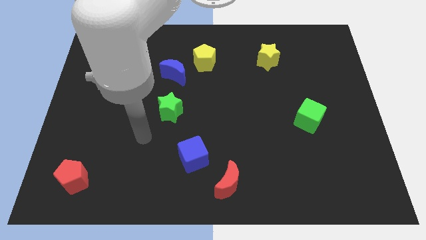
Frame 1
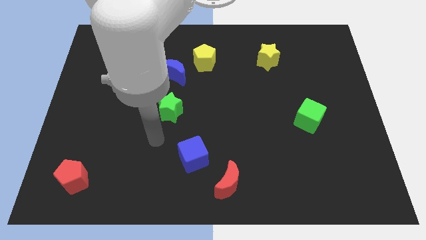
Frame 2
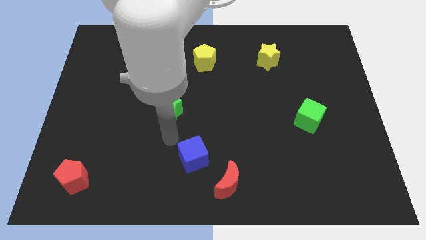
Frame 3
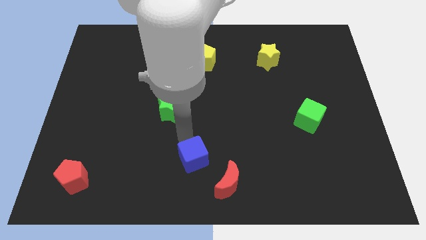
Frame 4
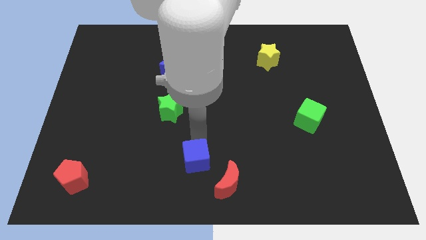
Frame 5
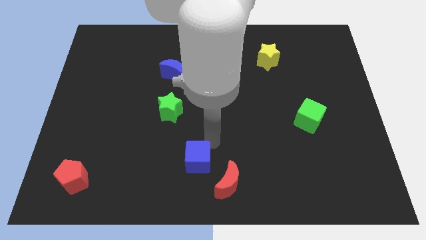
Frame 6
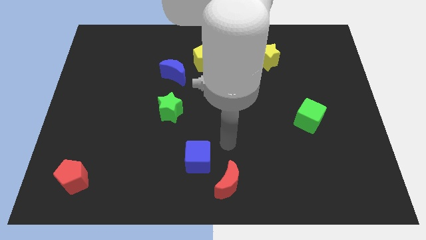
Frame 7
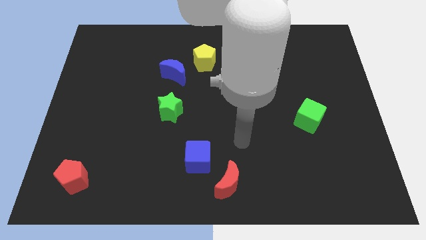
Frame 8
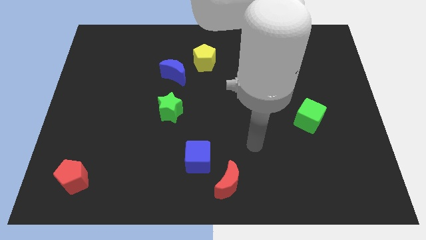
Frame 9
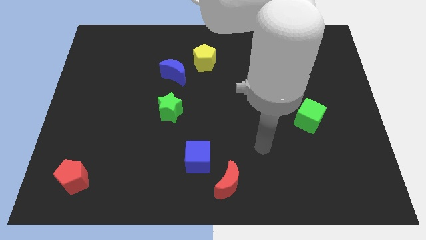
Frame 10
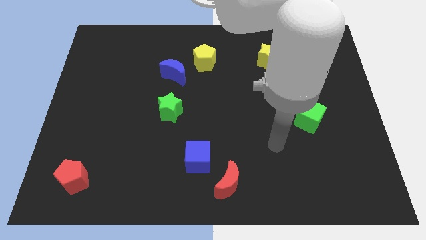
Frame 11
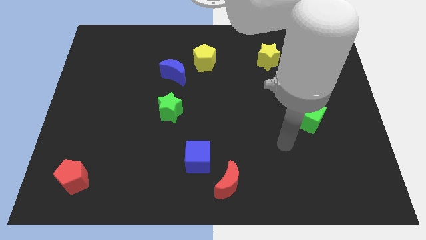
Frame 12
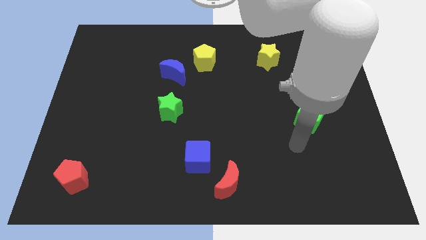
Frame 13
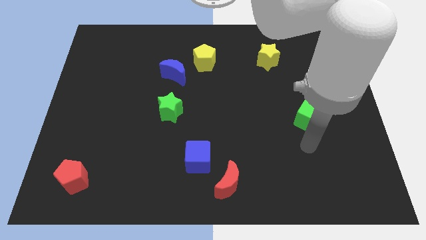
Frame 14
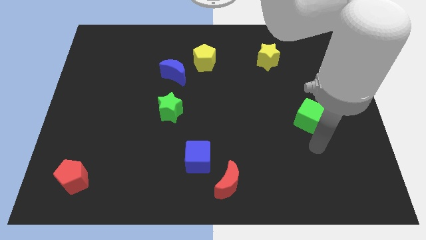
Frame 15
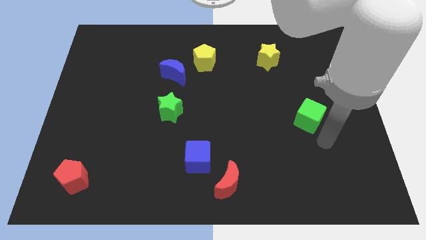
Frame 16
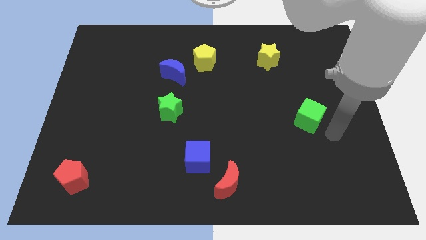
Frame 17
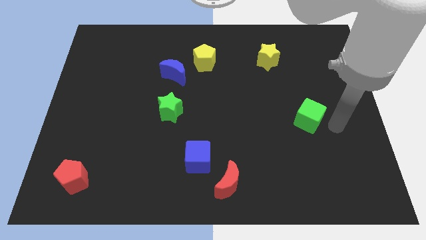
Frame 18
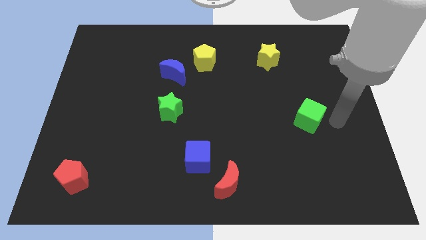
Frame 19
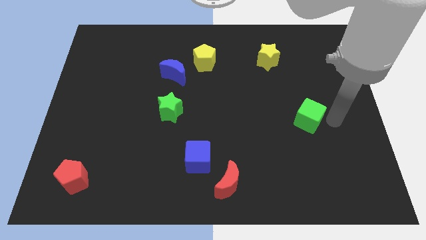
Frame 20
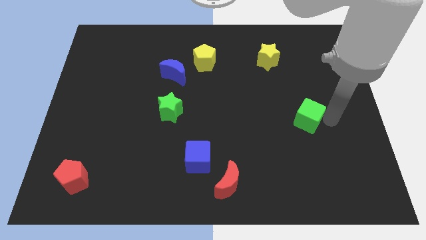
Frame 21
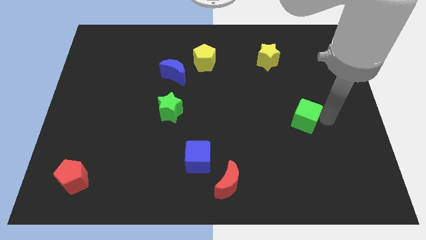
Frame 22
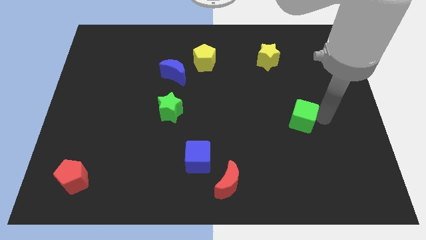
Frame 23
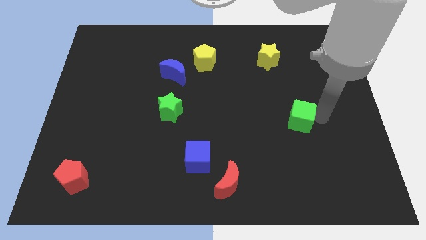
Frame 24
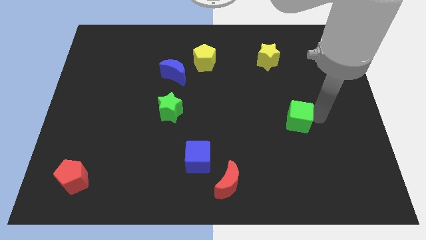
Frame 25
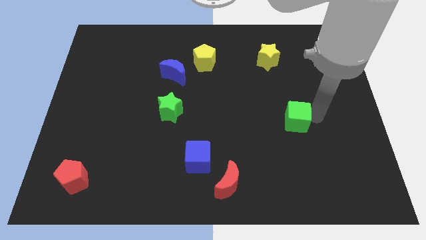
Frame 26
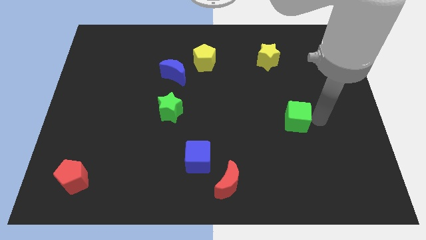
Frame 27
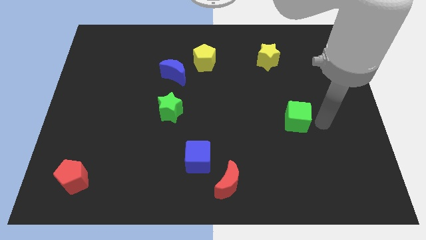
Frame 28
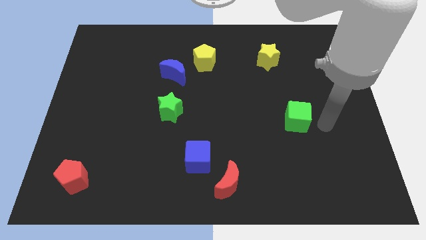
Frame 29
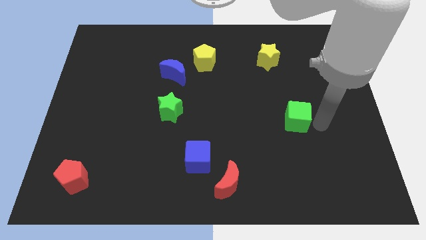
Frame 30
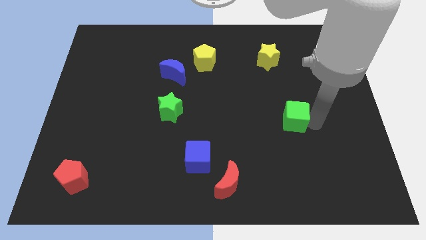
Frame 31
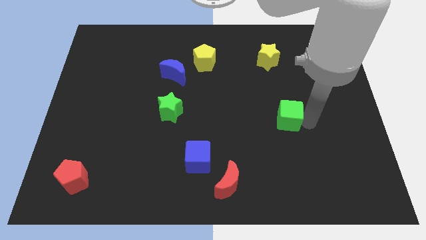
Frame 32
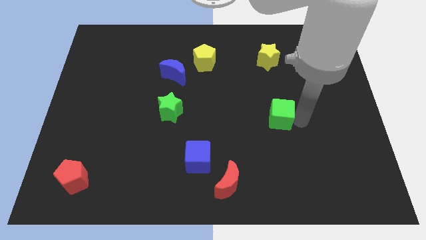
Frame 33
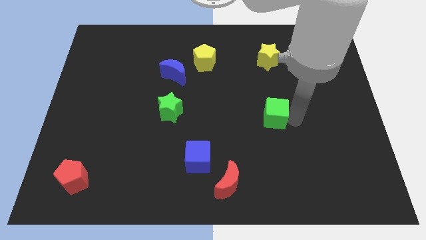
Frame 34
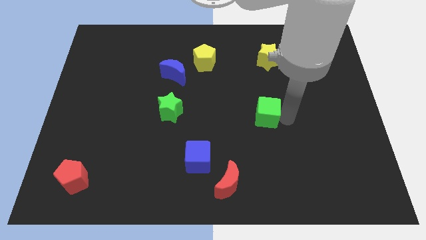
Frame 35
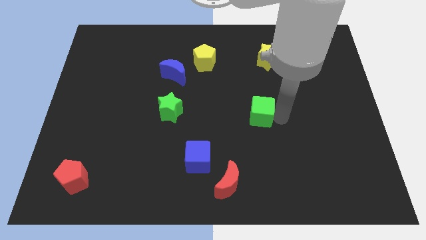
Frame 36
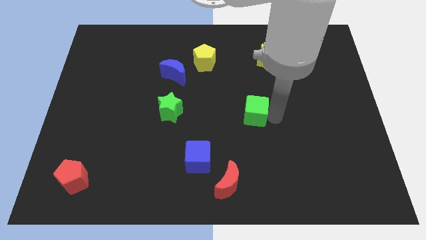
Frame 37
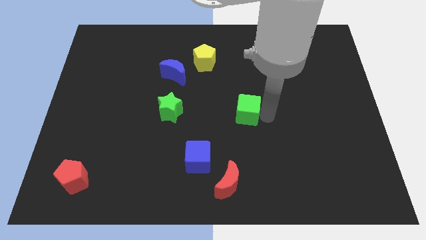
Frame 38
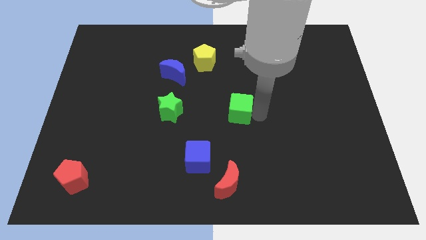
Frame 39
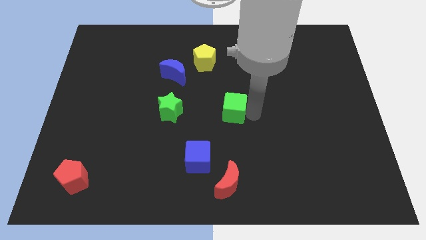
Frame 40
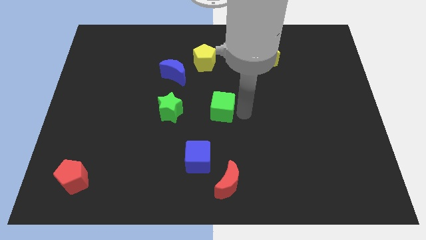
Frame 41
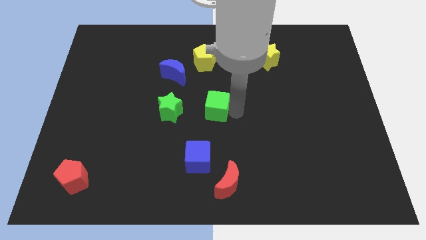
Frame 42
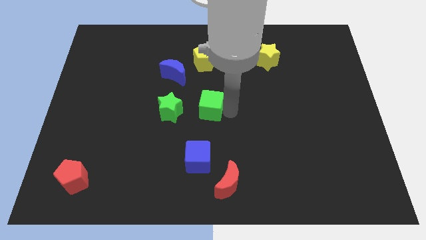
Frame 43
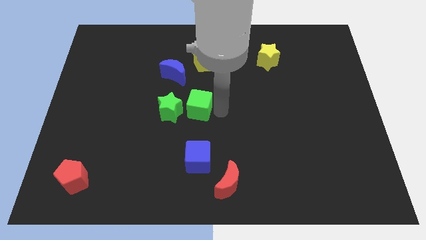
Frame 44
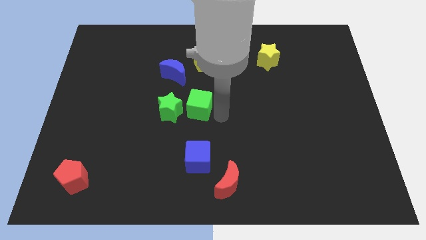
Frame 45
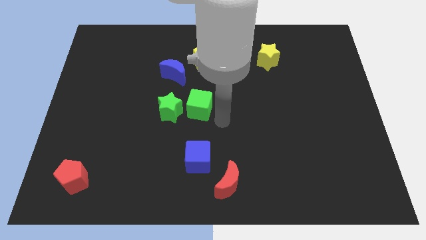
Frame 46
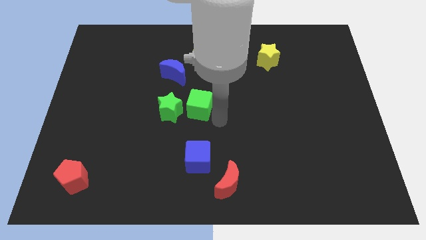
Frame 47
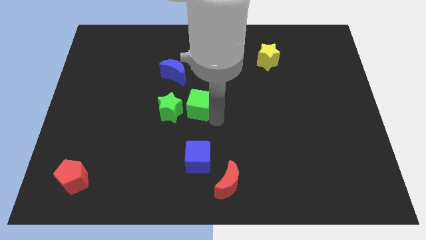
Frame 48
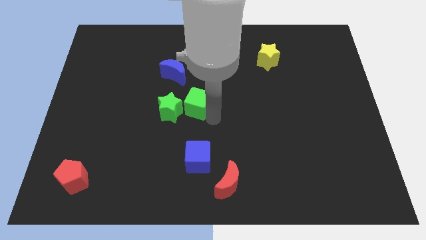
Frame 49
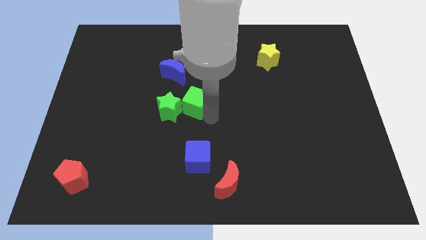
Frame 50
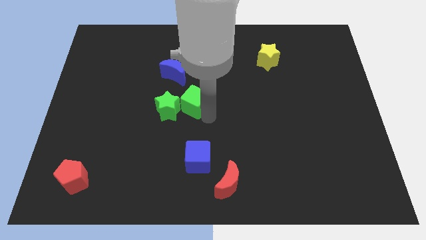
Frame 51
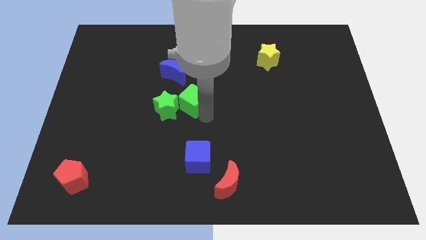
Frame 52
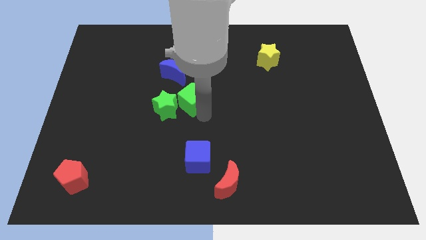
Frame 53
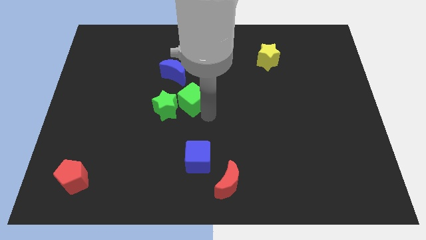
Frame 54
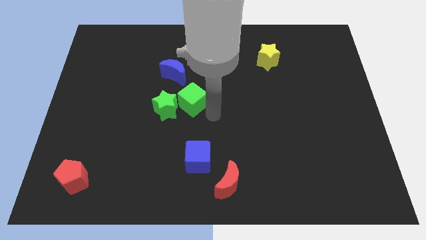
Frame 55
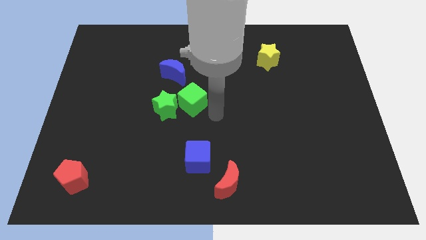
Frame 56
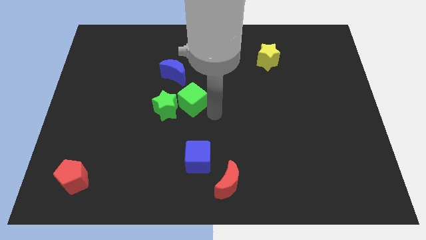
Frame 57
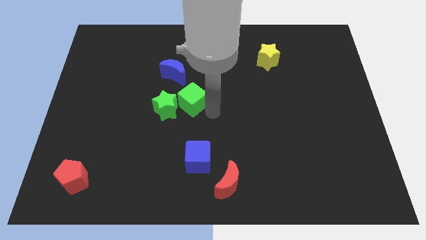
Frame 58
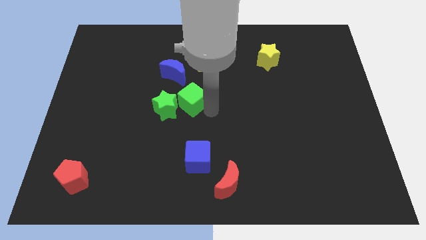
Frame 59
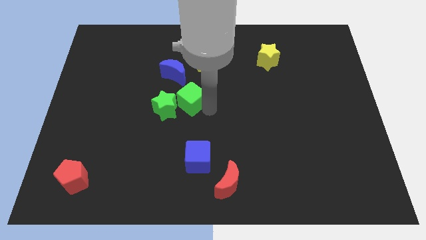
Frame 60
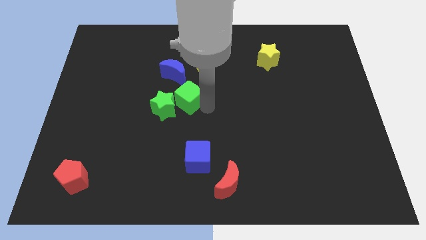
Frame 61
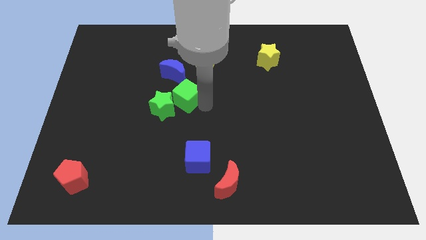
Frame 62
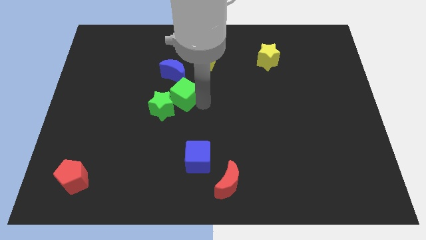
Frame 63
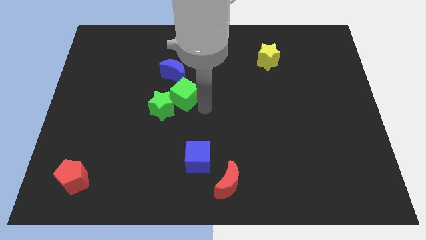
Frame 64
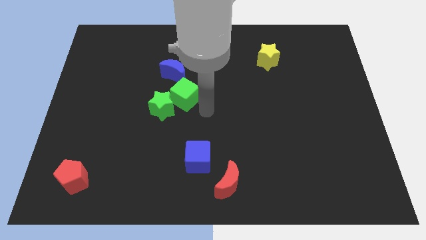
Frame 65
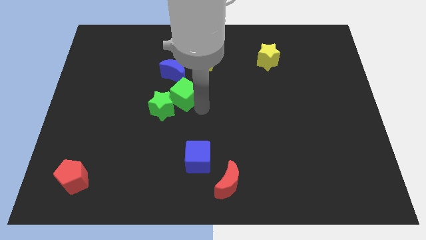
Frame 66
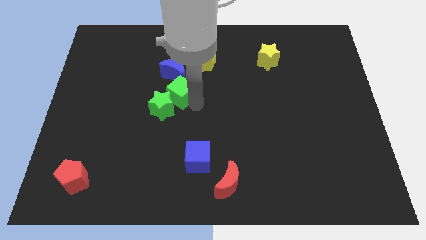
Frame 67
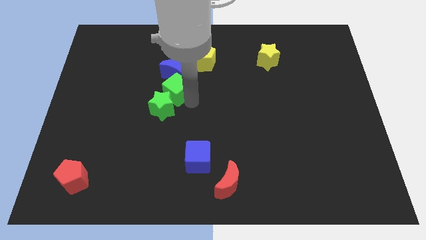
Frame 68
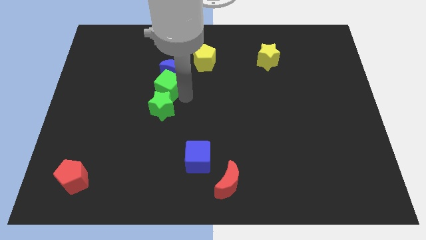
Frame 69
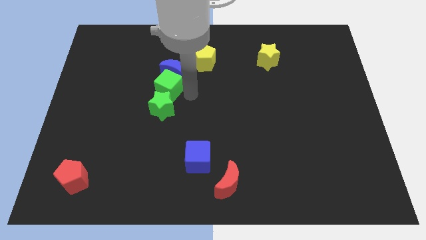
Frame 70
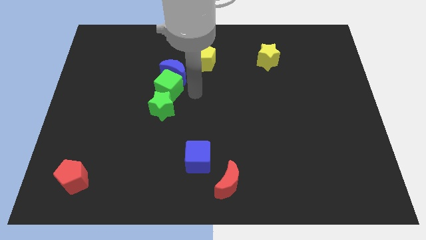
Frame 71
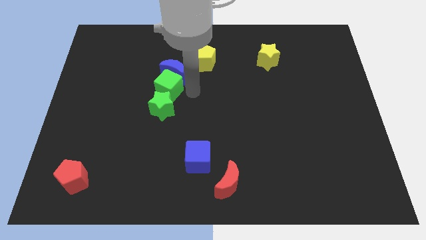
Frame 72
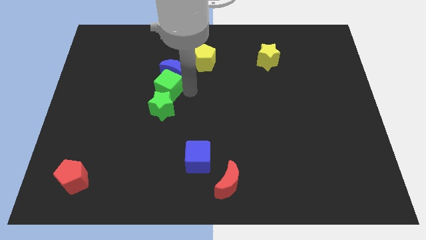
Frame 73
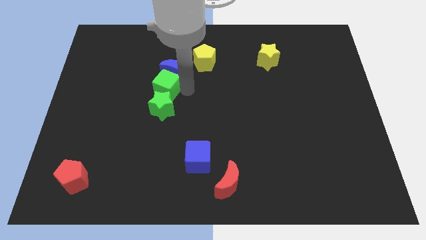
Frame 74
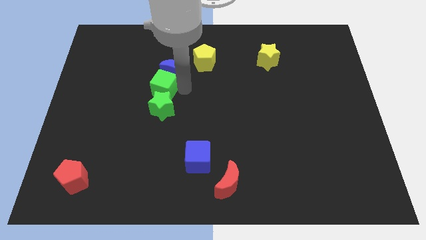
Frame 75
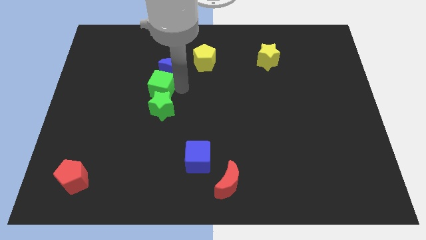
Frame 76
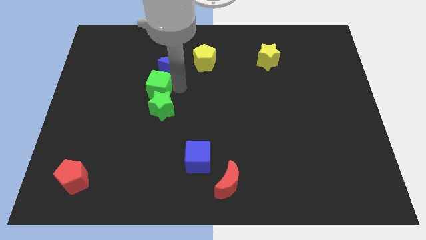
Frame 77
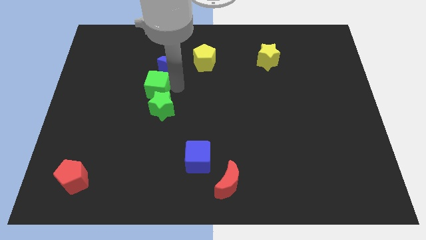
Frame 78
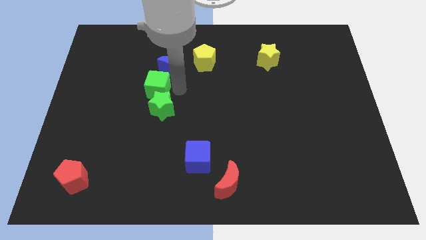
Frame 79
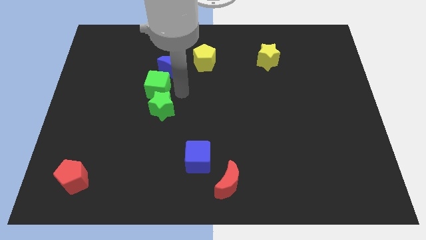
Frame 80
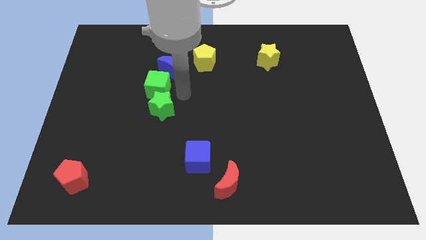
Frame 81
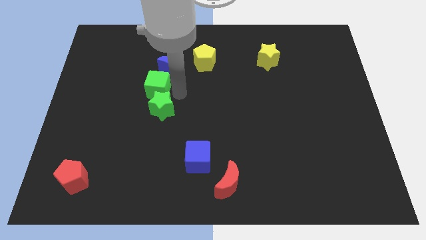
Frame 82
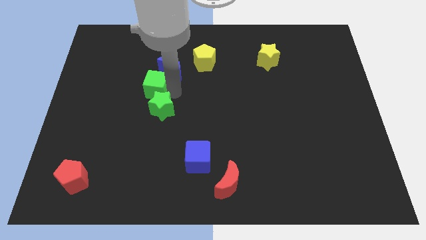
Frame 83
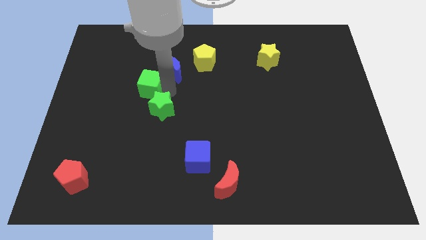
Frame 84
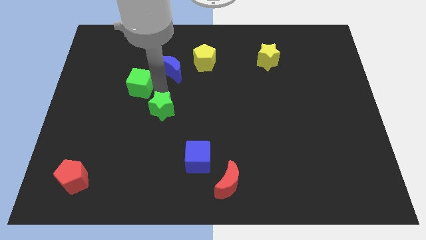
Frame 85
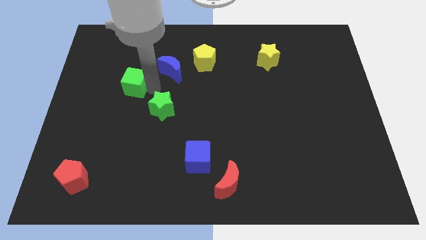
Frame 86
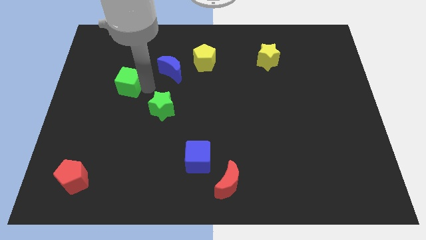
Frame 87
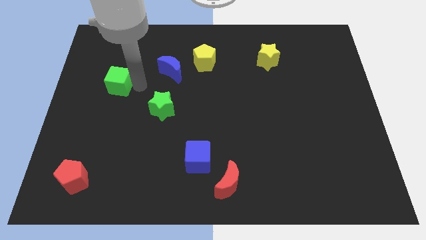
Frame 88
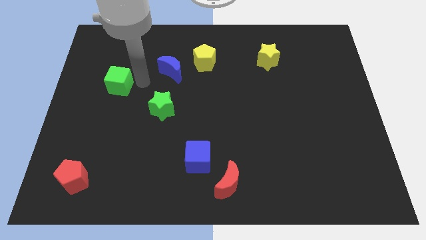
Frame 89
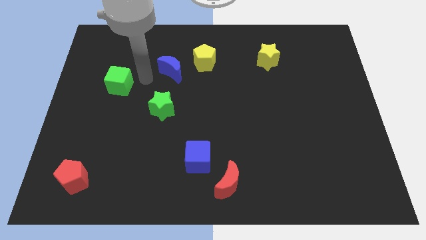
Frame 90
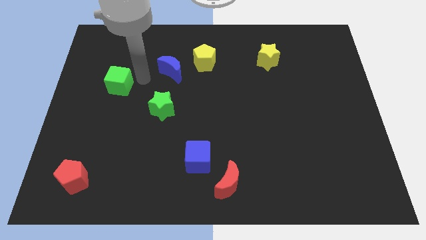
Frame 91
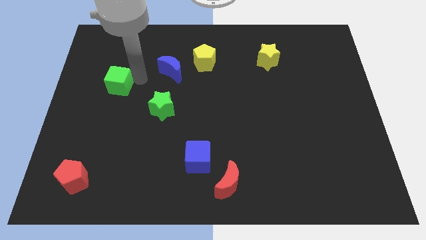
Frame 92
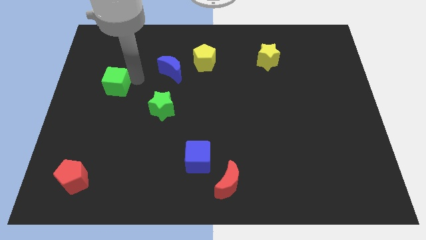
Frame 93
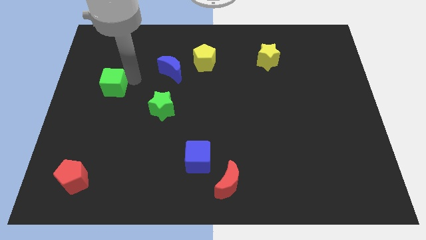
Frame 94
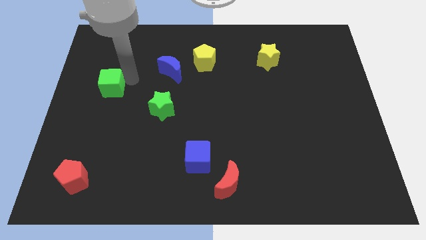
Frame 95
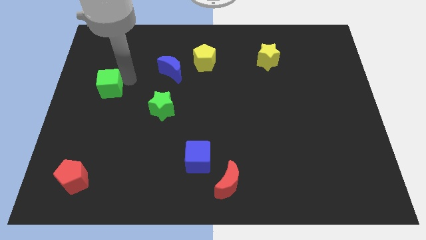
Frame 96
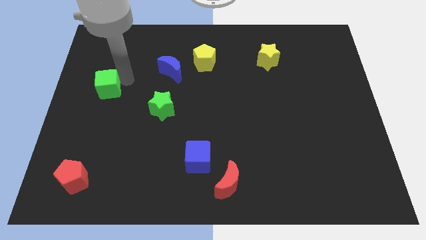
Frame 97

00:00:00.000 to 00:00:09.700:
slide the green cube to the left side of the board
